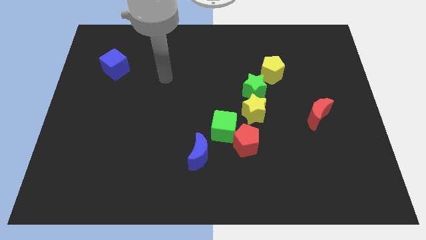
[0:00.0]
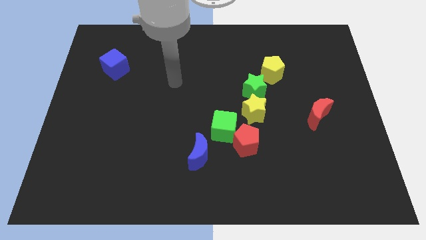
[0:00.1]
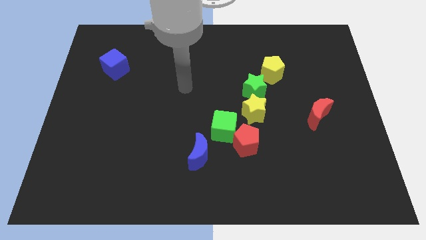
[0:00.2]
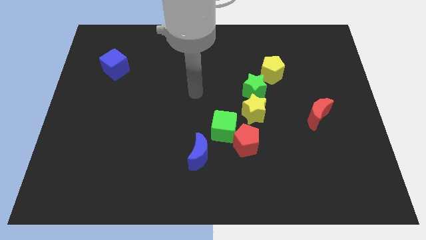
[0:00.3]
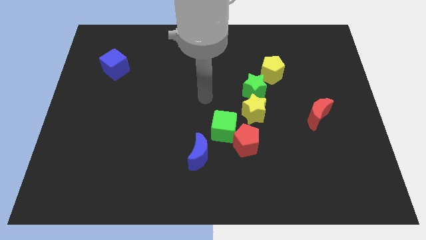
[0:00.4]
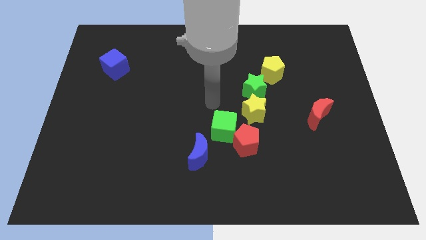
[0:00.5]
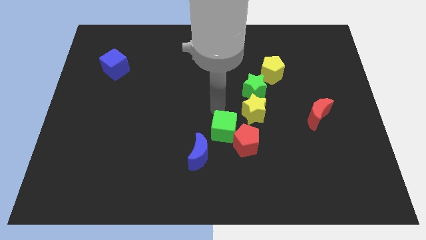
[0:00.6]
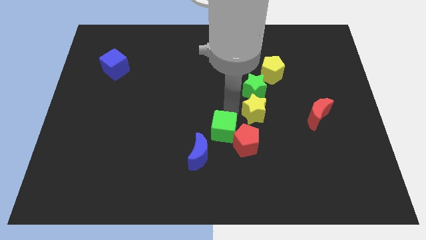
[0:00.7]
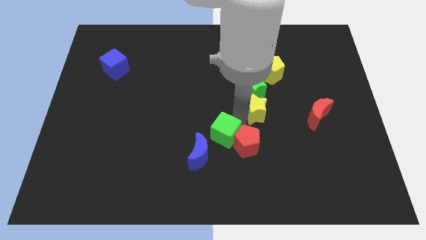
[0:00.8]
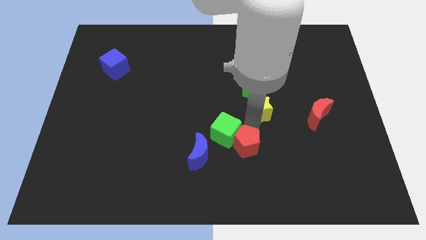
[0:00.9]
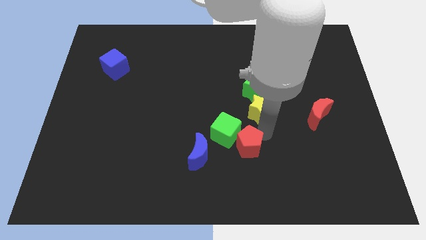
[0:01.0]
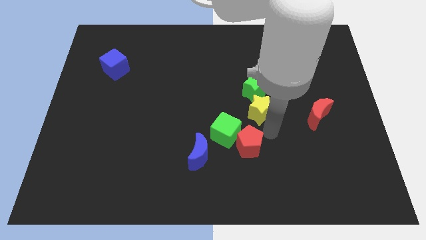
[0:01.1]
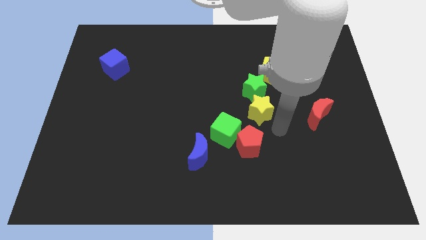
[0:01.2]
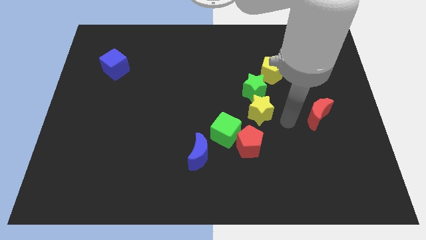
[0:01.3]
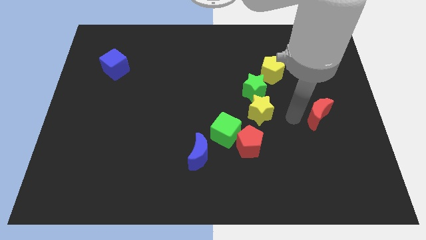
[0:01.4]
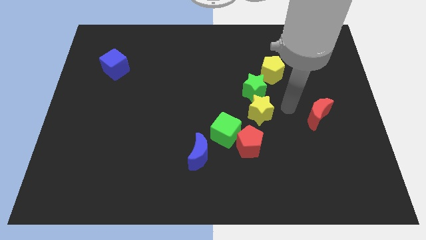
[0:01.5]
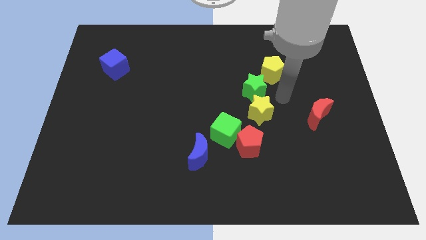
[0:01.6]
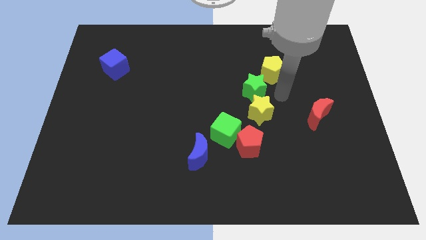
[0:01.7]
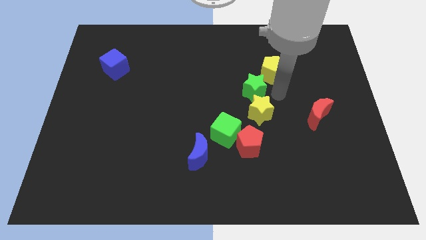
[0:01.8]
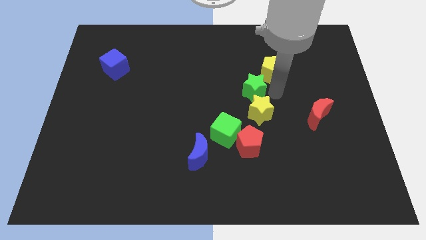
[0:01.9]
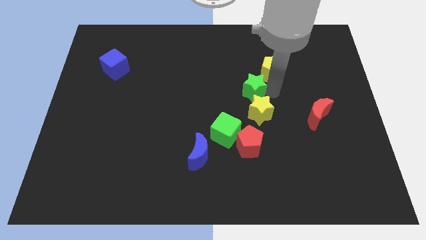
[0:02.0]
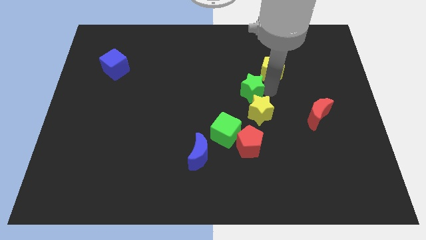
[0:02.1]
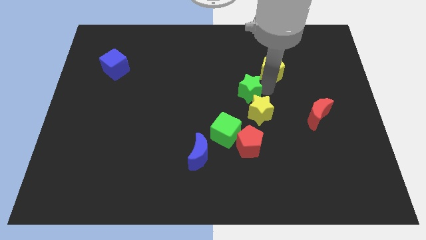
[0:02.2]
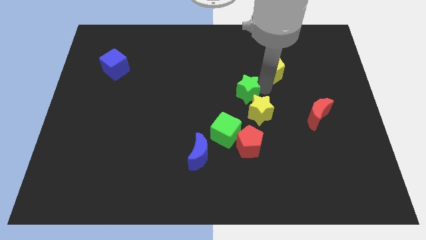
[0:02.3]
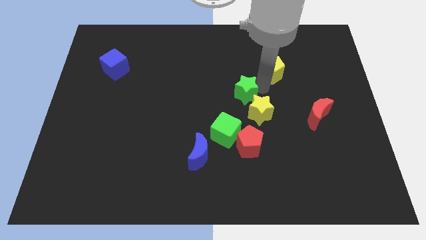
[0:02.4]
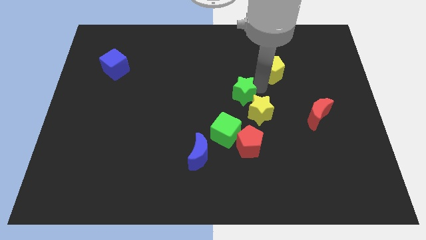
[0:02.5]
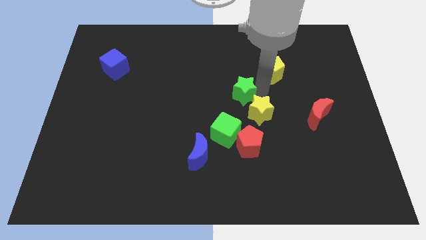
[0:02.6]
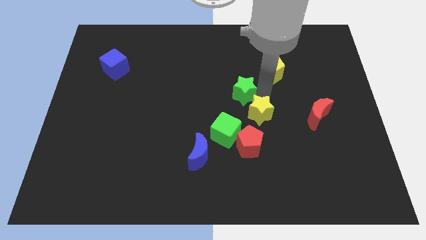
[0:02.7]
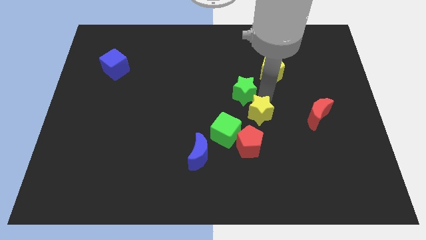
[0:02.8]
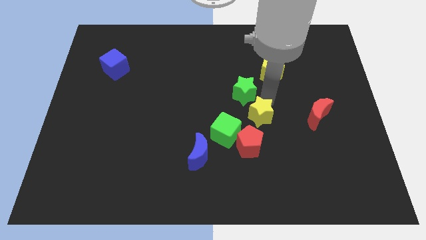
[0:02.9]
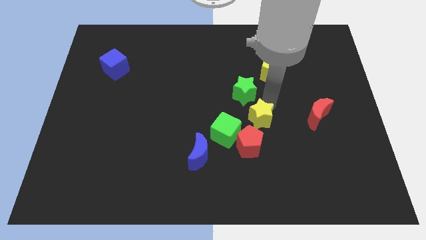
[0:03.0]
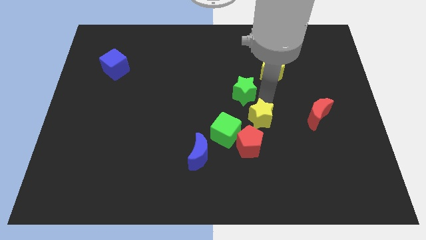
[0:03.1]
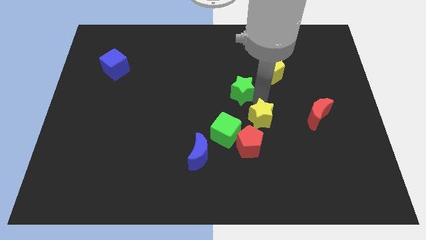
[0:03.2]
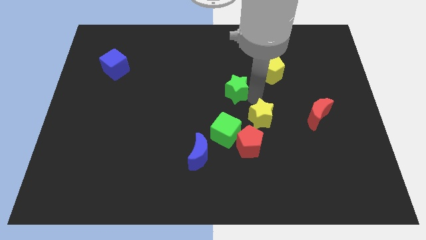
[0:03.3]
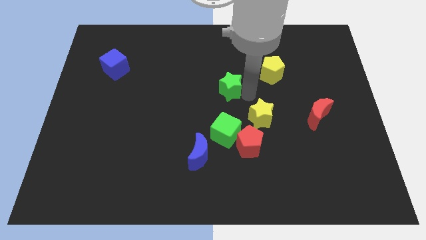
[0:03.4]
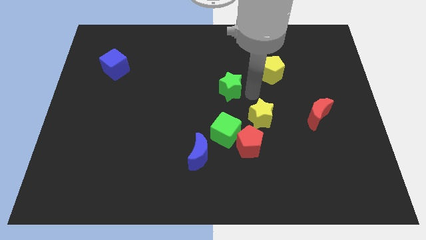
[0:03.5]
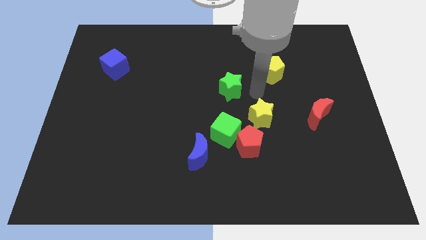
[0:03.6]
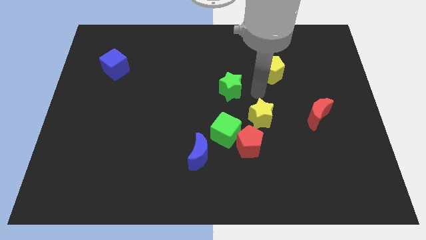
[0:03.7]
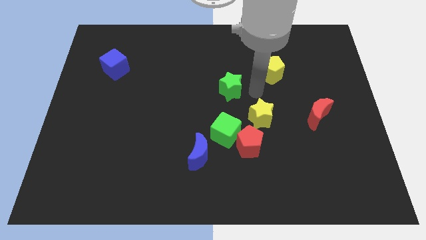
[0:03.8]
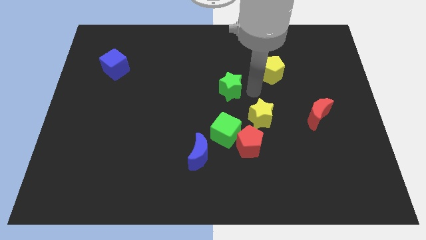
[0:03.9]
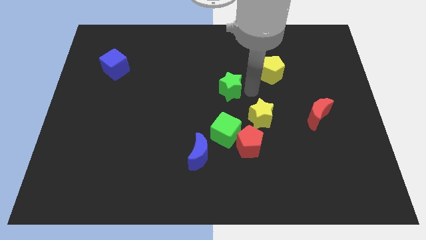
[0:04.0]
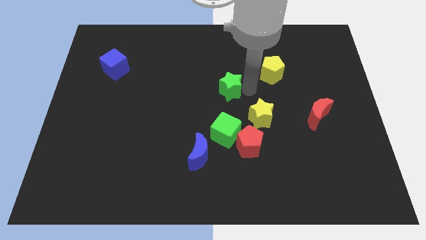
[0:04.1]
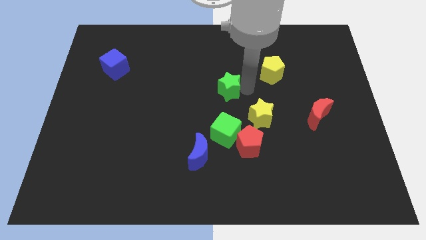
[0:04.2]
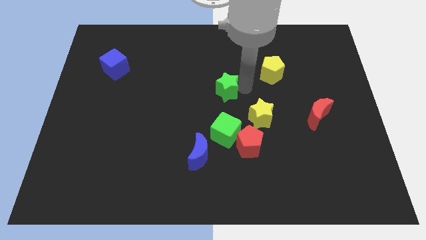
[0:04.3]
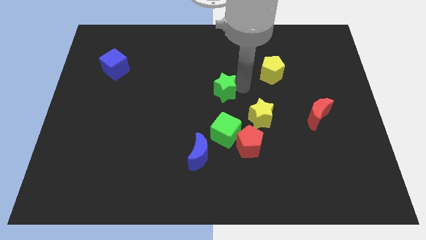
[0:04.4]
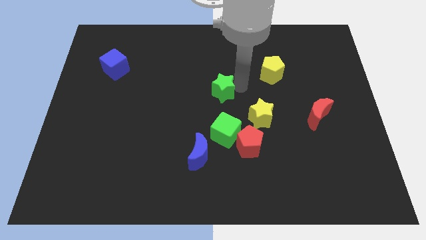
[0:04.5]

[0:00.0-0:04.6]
pull the green star apart from the yellow star and yellow pentagon

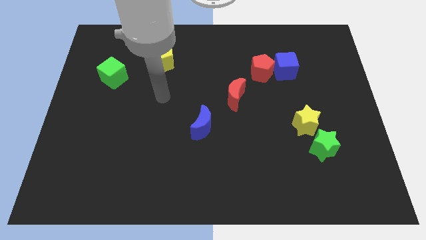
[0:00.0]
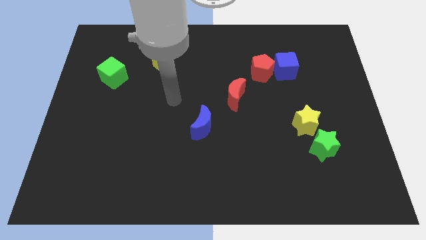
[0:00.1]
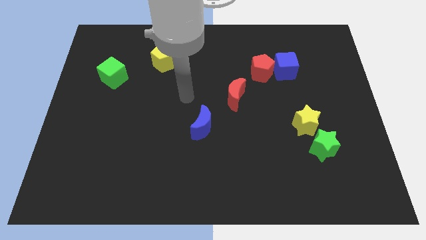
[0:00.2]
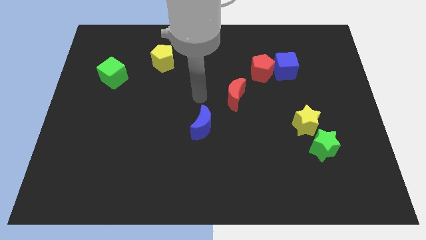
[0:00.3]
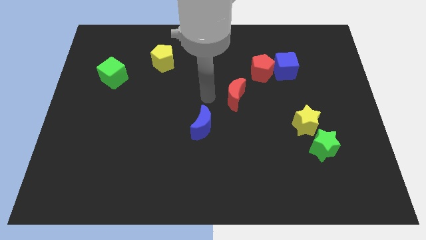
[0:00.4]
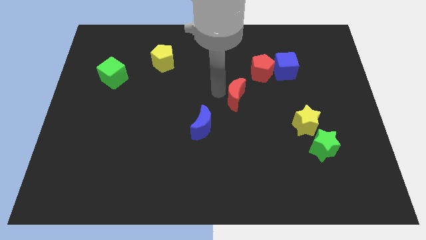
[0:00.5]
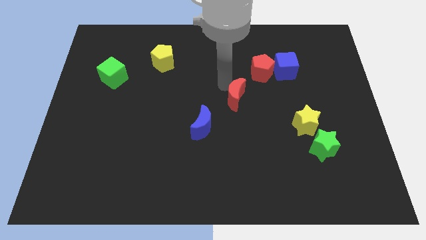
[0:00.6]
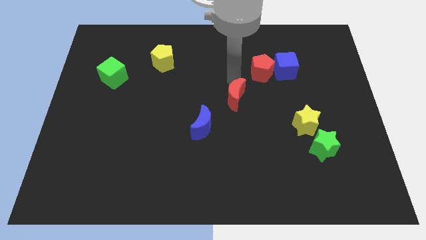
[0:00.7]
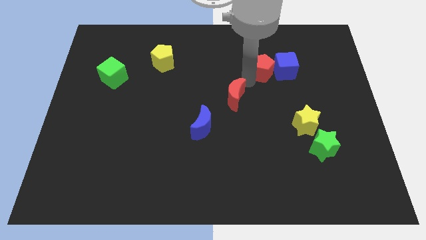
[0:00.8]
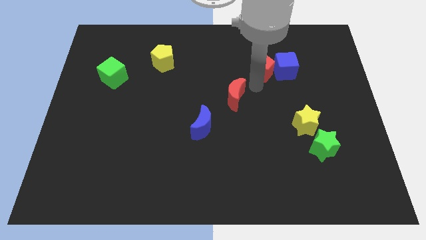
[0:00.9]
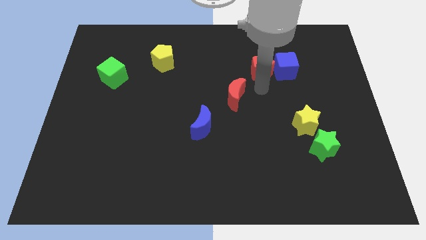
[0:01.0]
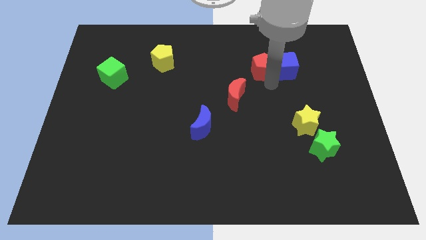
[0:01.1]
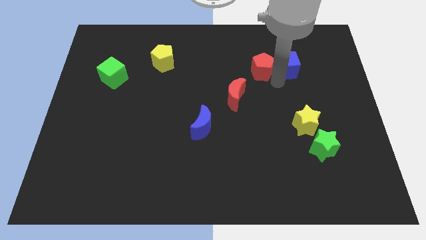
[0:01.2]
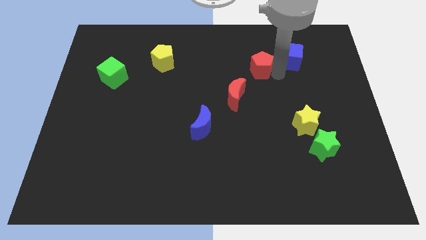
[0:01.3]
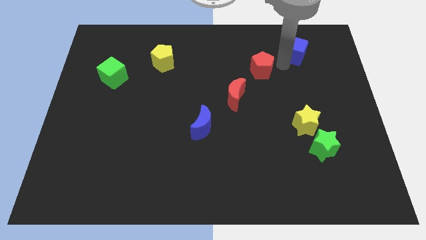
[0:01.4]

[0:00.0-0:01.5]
separate the red pentagon from the blue cube

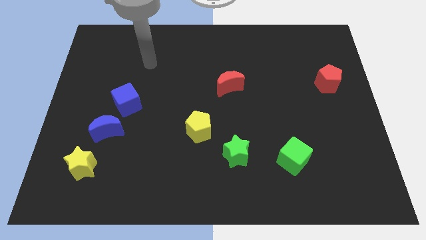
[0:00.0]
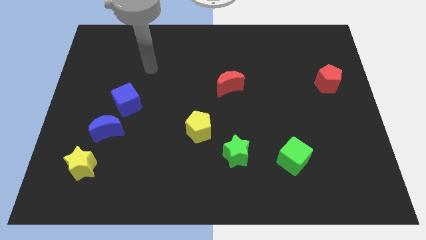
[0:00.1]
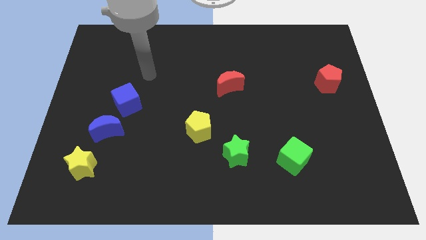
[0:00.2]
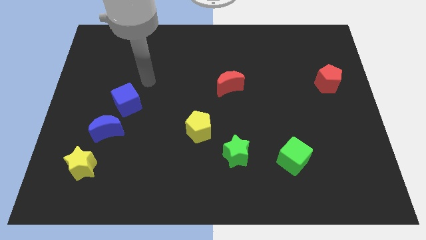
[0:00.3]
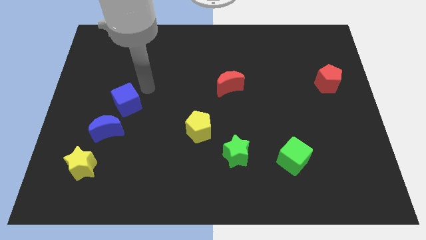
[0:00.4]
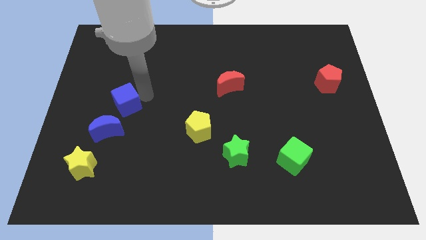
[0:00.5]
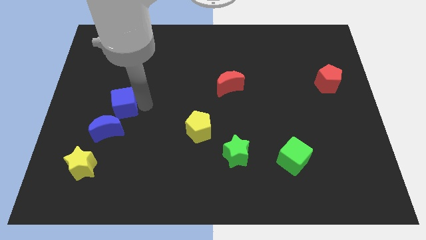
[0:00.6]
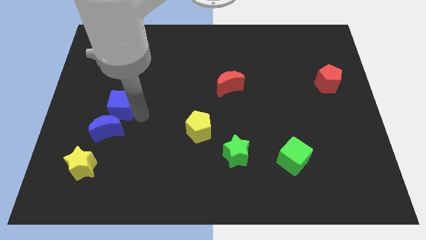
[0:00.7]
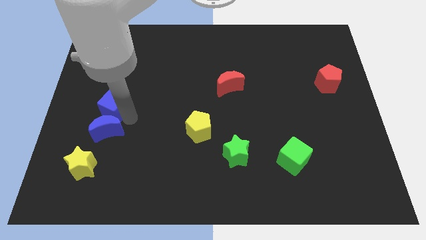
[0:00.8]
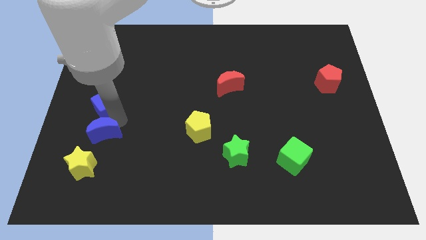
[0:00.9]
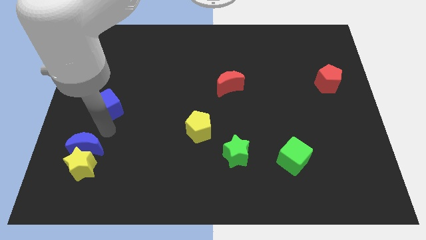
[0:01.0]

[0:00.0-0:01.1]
pull the blue cube apart from the blue moon

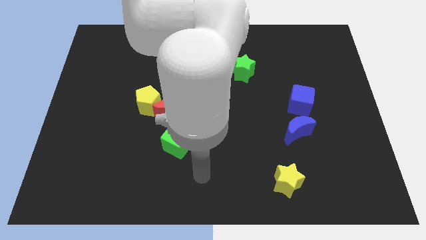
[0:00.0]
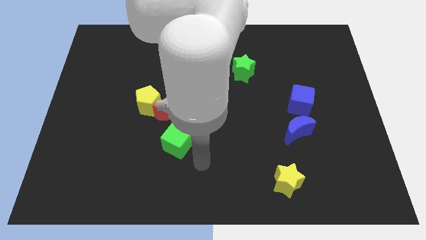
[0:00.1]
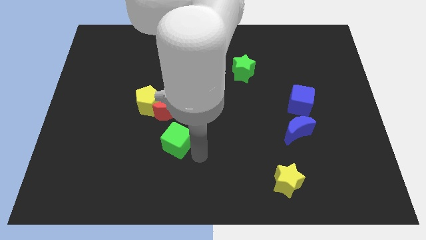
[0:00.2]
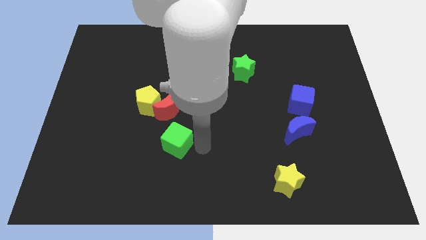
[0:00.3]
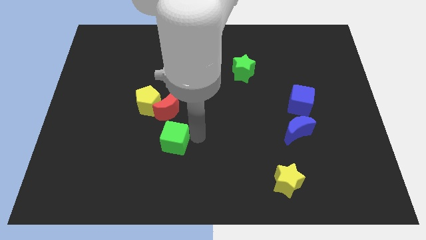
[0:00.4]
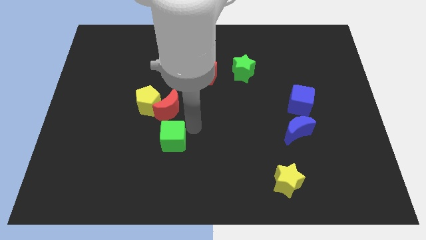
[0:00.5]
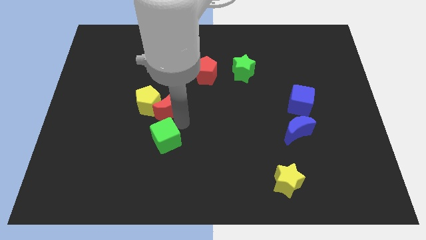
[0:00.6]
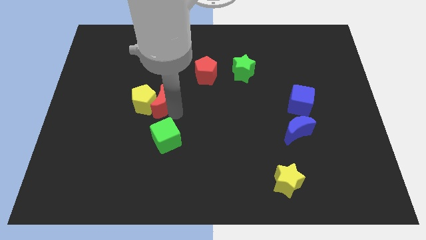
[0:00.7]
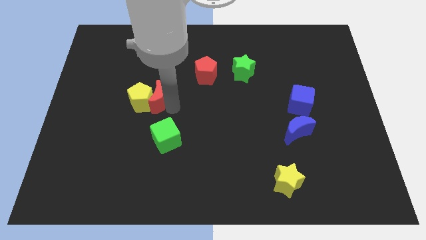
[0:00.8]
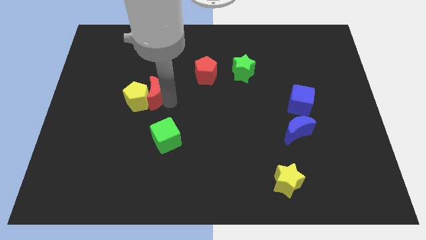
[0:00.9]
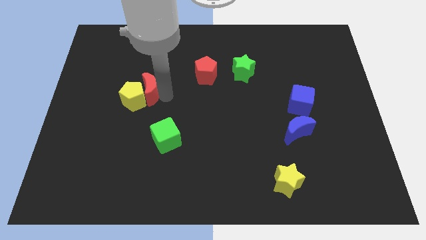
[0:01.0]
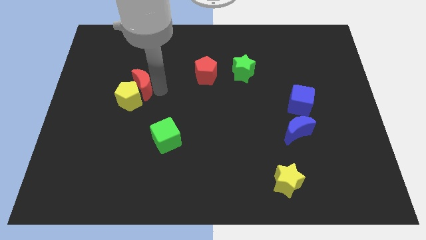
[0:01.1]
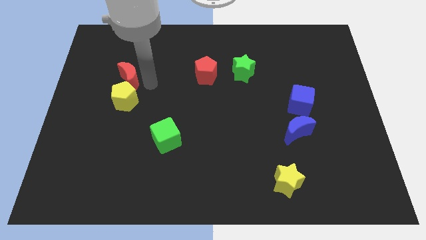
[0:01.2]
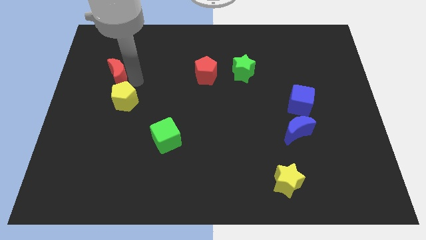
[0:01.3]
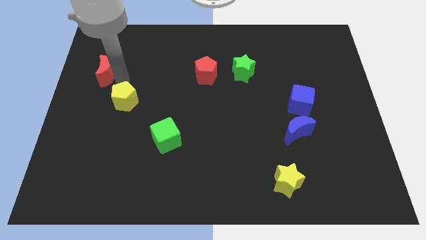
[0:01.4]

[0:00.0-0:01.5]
move the yellow pentagon away from the red moon

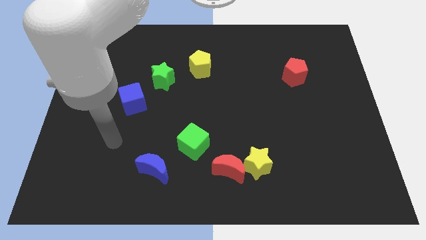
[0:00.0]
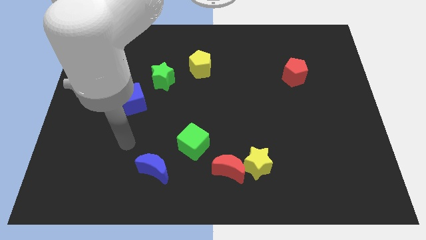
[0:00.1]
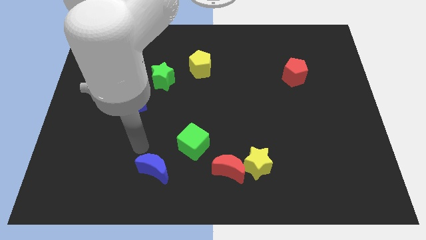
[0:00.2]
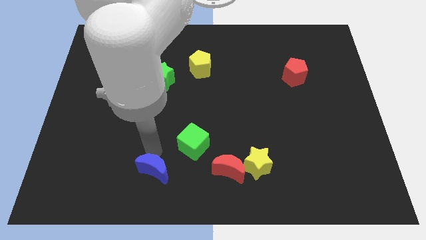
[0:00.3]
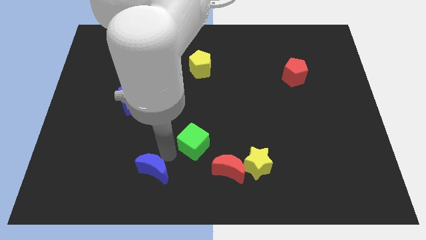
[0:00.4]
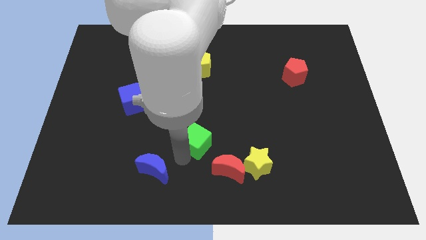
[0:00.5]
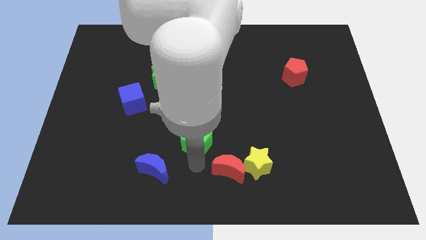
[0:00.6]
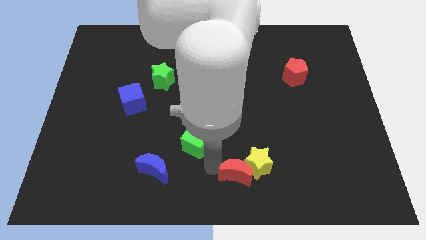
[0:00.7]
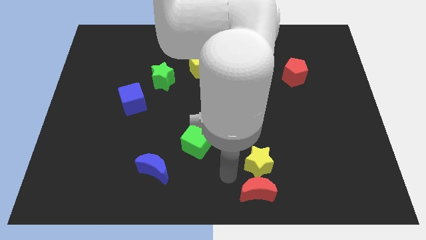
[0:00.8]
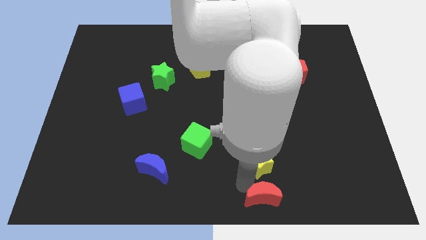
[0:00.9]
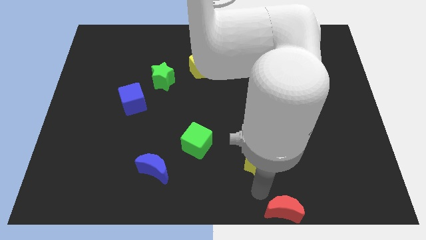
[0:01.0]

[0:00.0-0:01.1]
move the yellow star away from the red moon
